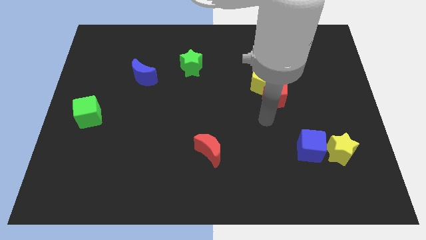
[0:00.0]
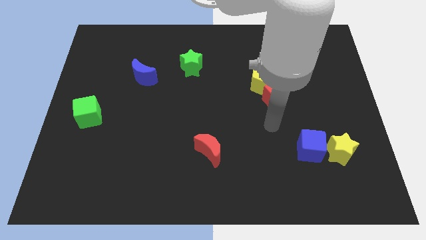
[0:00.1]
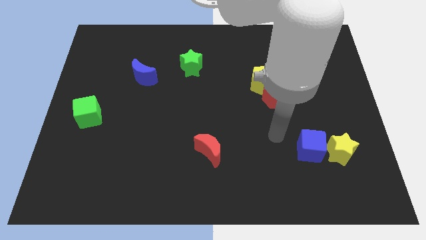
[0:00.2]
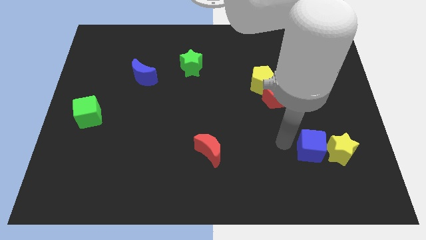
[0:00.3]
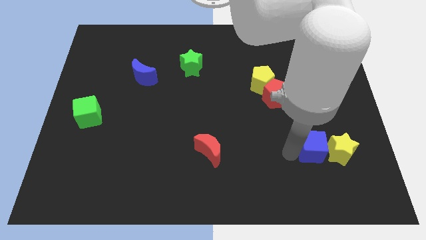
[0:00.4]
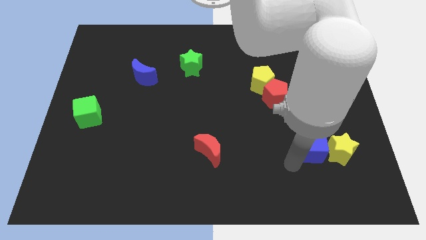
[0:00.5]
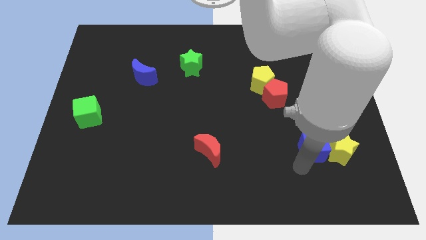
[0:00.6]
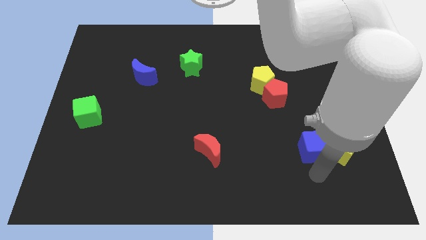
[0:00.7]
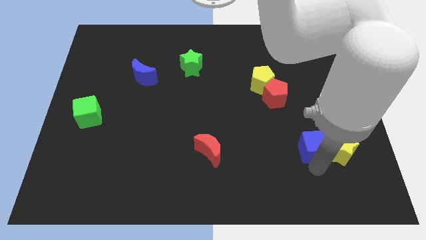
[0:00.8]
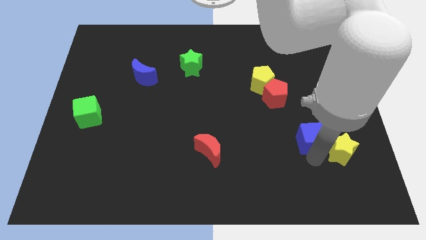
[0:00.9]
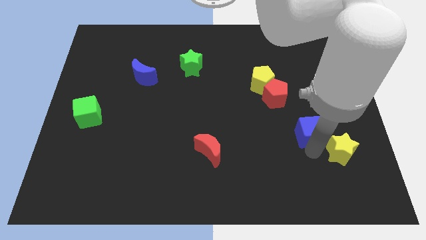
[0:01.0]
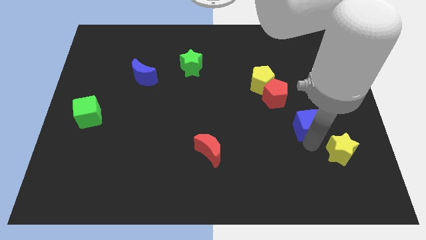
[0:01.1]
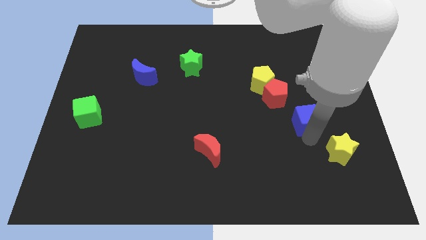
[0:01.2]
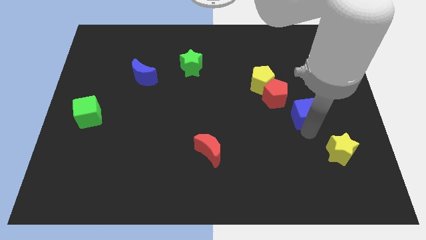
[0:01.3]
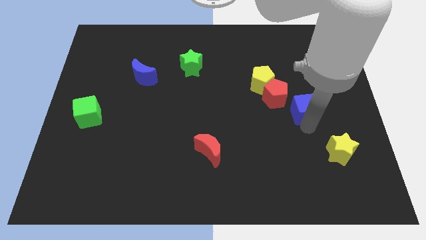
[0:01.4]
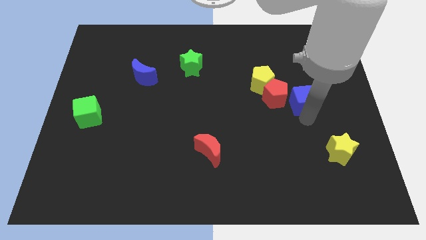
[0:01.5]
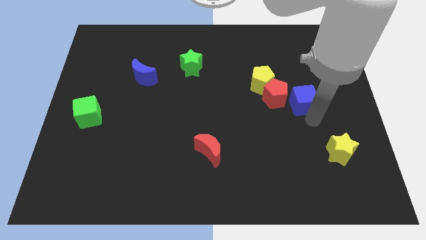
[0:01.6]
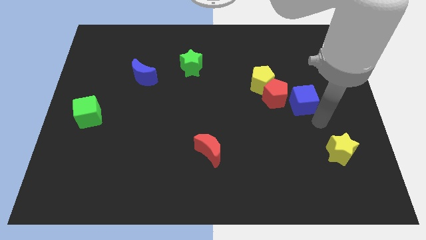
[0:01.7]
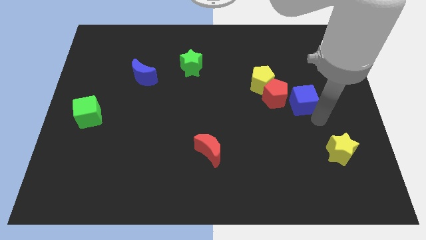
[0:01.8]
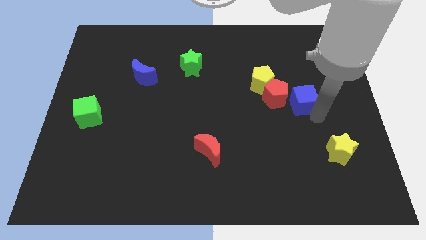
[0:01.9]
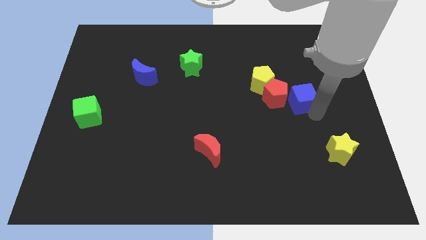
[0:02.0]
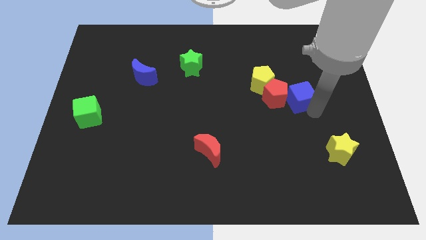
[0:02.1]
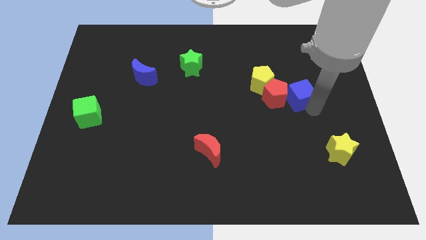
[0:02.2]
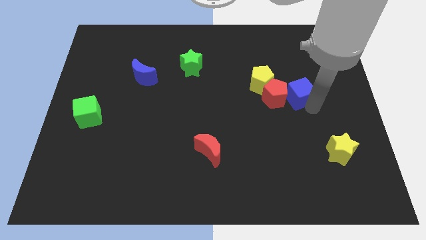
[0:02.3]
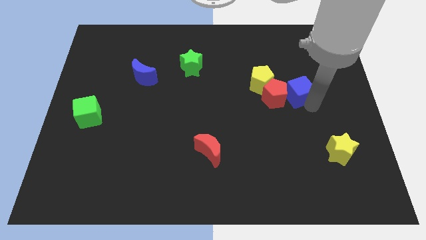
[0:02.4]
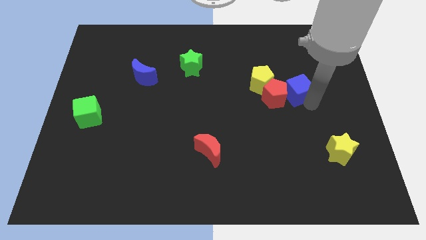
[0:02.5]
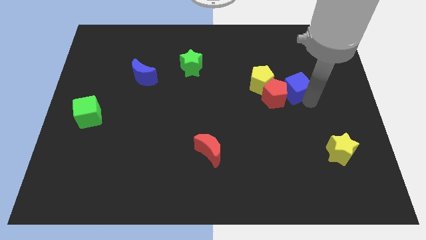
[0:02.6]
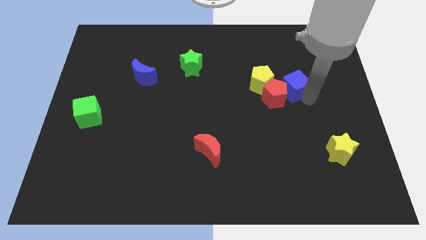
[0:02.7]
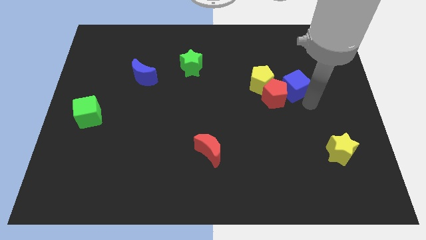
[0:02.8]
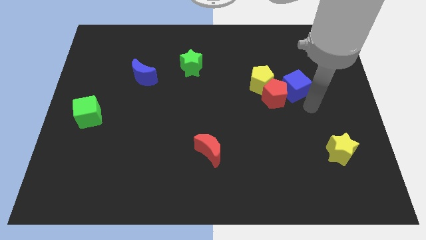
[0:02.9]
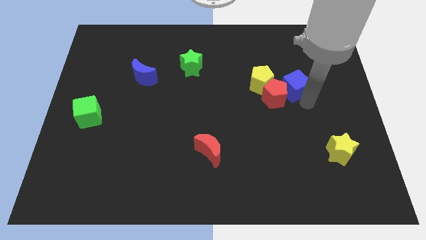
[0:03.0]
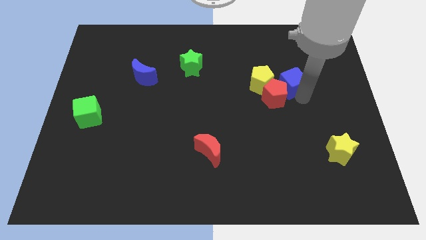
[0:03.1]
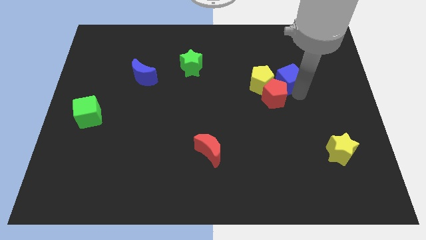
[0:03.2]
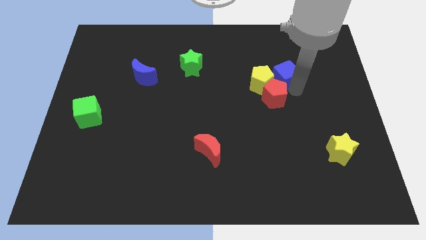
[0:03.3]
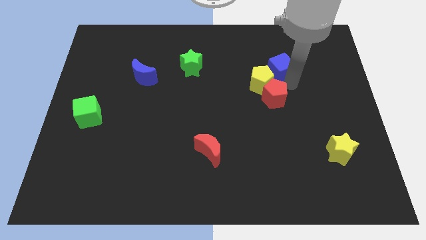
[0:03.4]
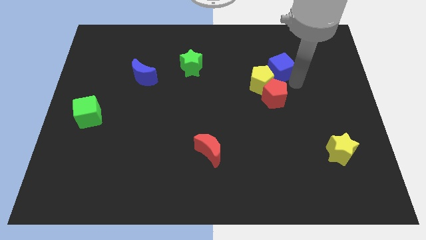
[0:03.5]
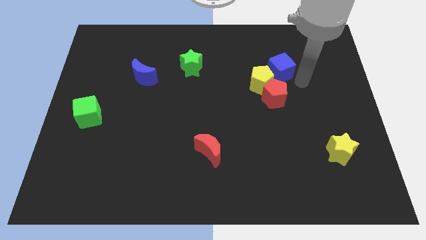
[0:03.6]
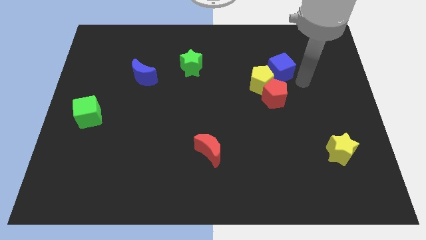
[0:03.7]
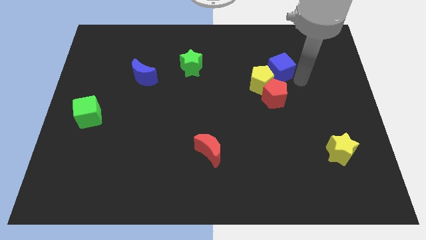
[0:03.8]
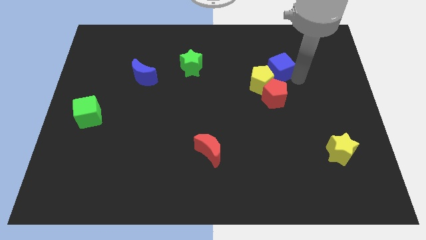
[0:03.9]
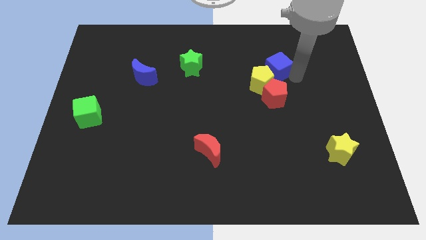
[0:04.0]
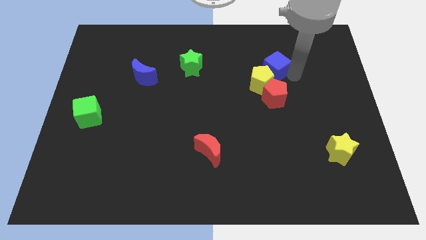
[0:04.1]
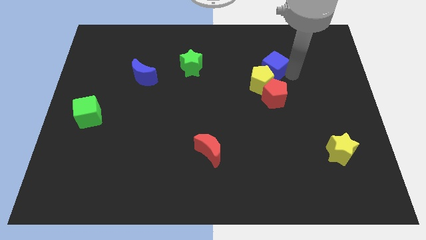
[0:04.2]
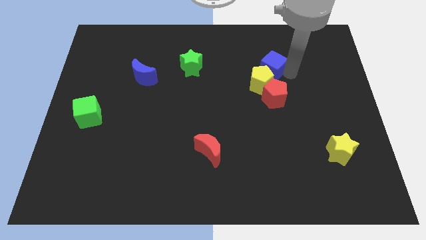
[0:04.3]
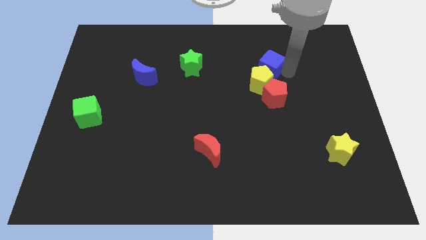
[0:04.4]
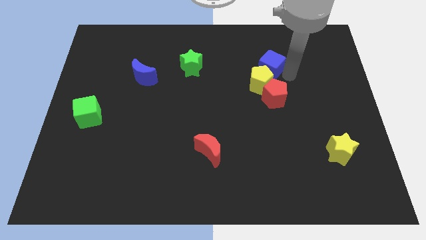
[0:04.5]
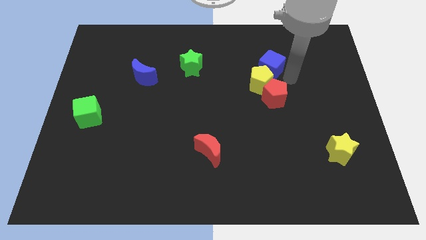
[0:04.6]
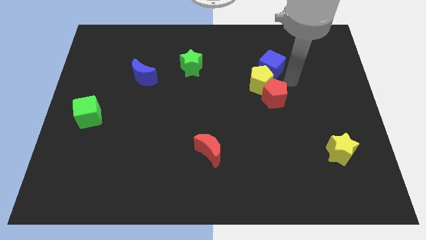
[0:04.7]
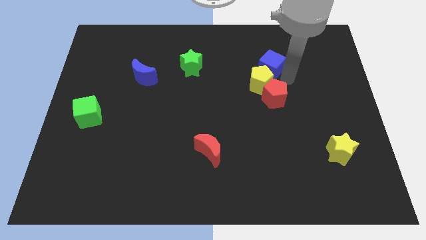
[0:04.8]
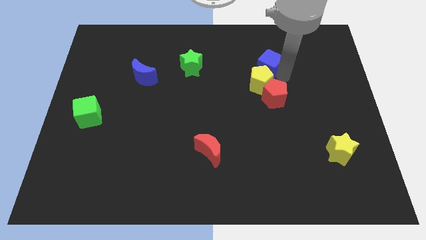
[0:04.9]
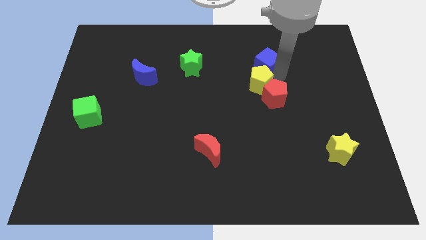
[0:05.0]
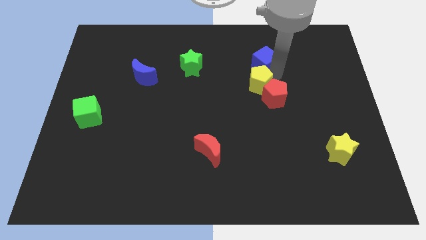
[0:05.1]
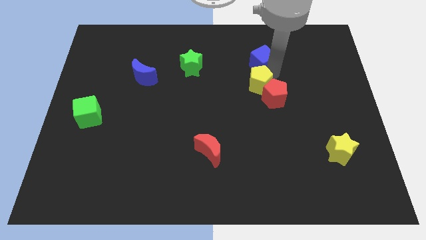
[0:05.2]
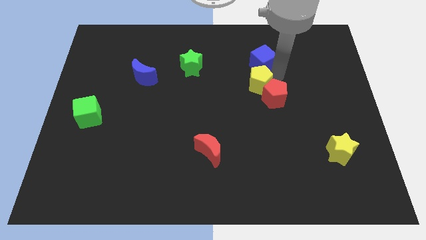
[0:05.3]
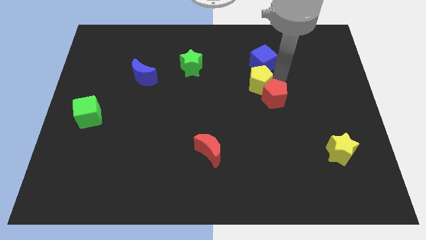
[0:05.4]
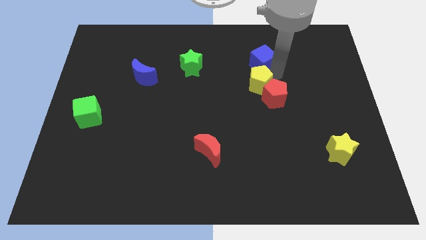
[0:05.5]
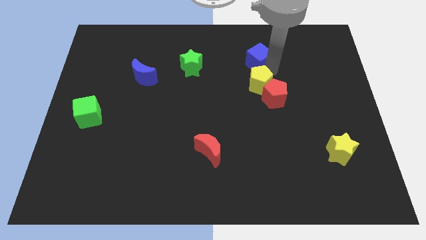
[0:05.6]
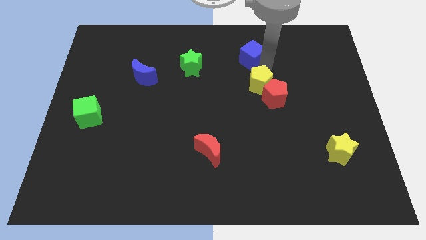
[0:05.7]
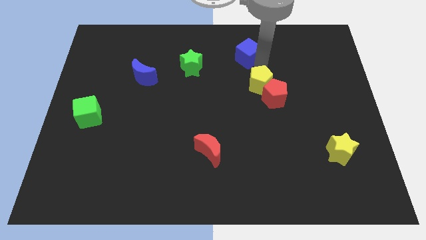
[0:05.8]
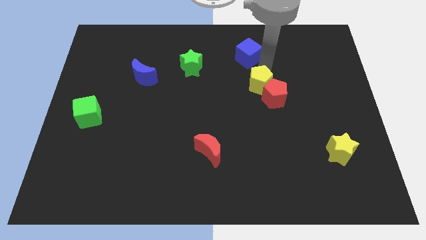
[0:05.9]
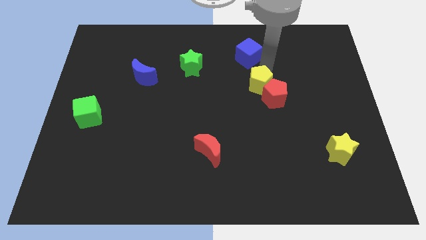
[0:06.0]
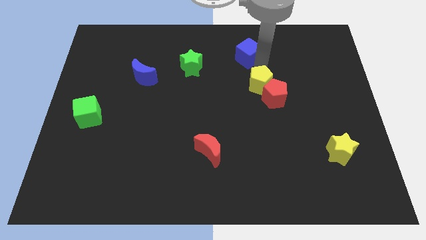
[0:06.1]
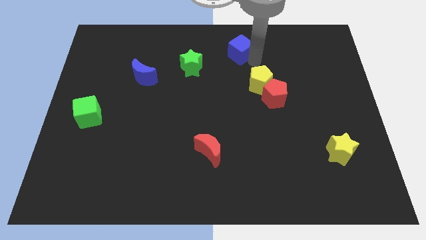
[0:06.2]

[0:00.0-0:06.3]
move the blue cube to the top side
